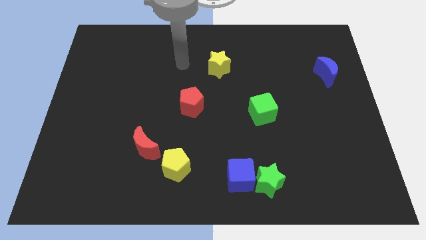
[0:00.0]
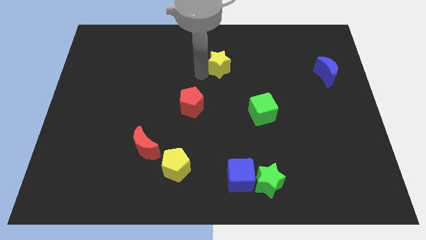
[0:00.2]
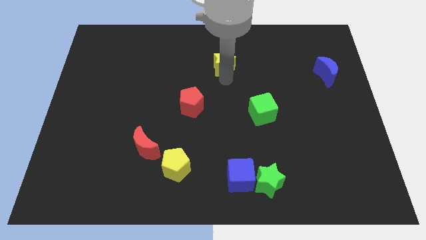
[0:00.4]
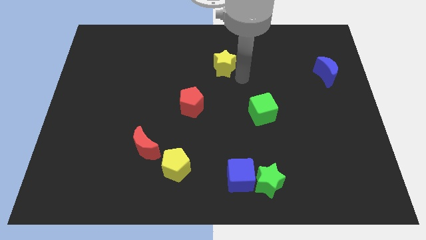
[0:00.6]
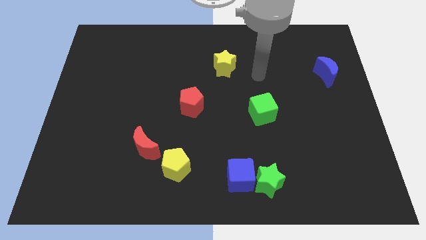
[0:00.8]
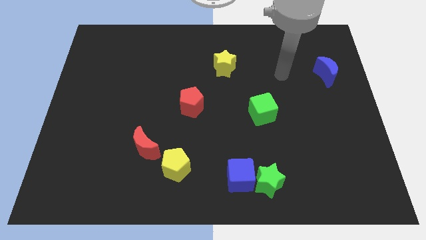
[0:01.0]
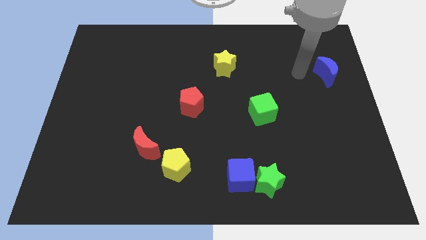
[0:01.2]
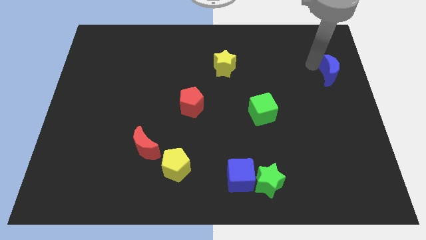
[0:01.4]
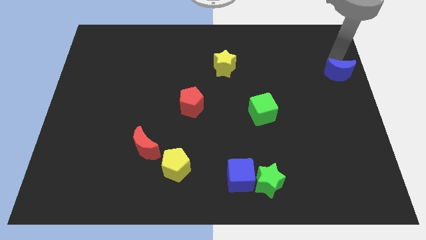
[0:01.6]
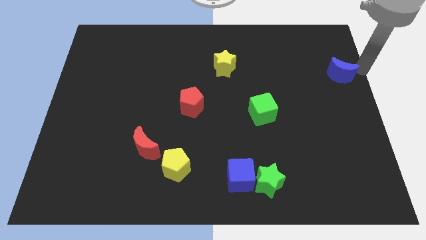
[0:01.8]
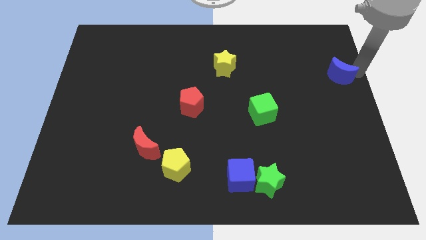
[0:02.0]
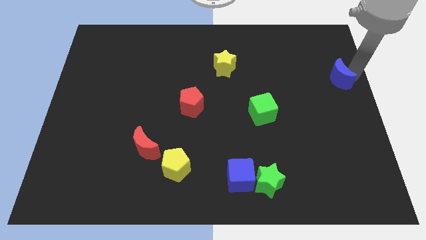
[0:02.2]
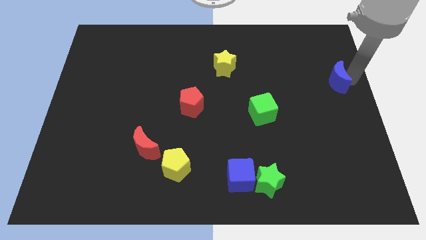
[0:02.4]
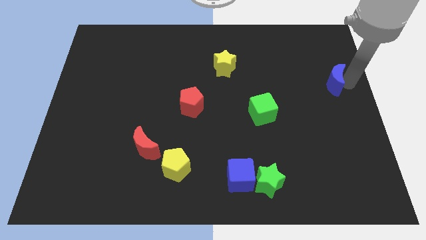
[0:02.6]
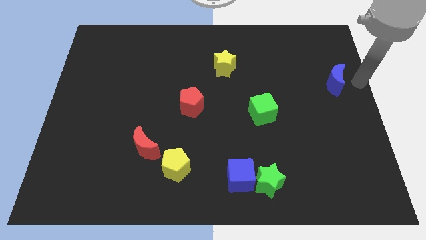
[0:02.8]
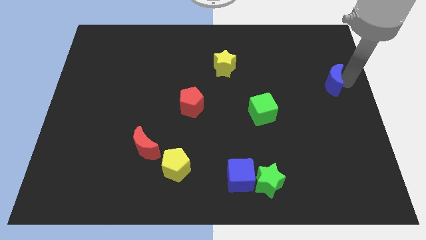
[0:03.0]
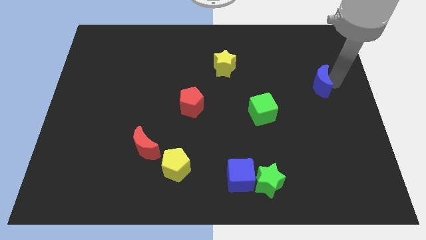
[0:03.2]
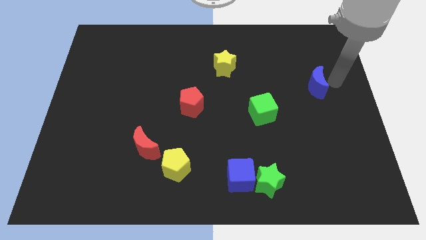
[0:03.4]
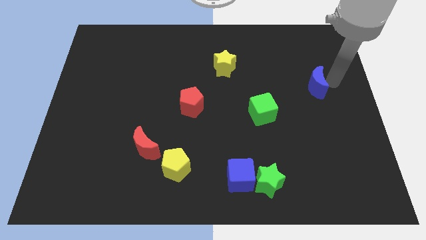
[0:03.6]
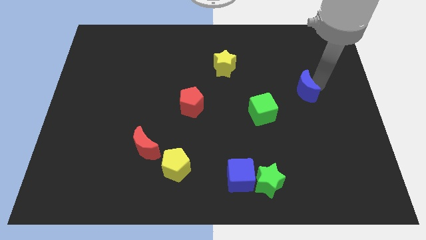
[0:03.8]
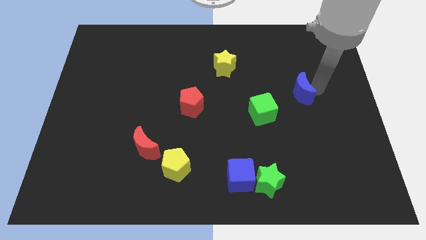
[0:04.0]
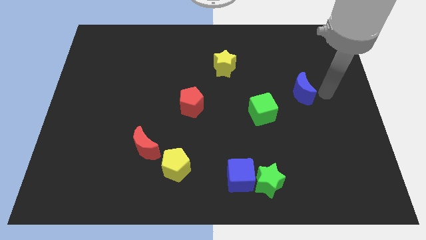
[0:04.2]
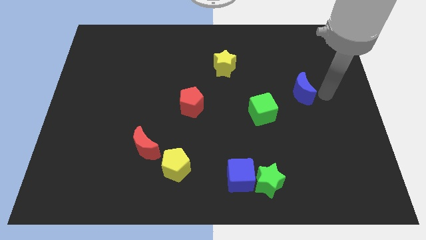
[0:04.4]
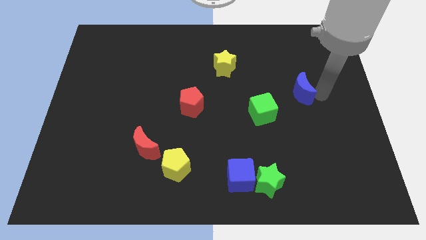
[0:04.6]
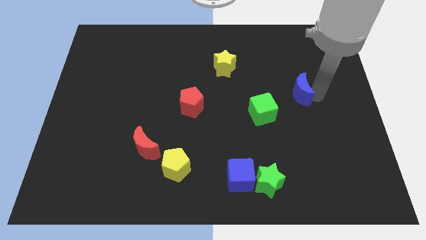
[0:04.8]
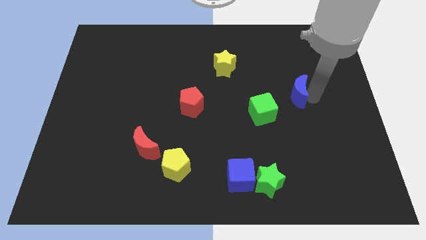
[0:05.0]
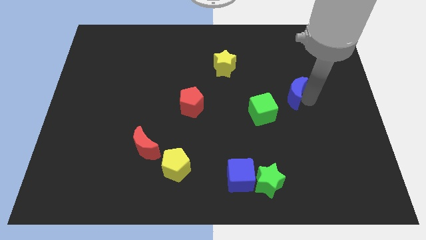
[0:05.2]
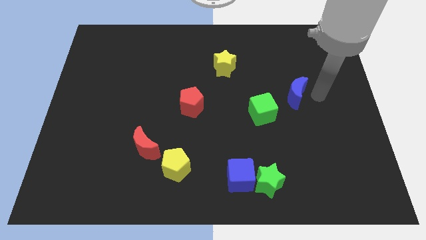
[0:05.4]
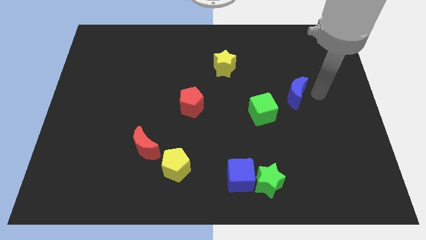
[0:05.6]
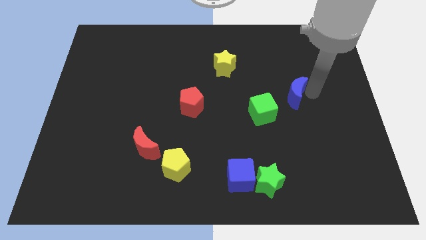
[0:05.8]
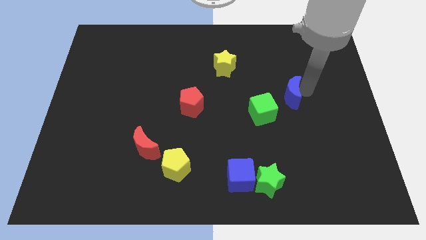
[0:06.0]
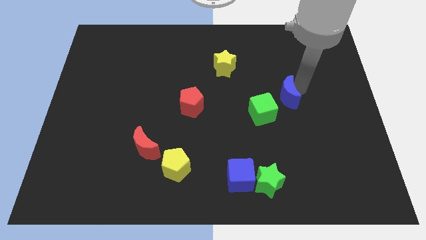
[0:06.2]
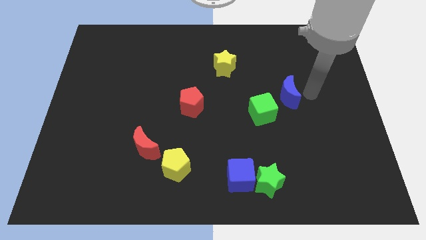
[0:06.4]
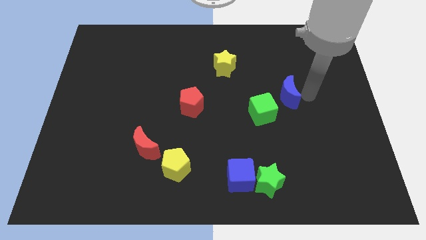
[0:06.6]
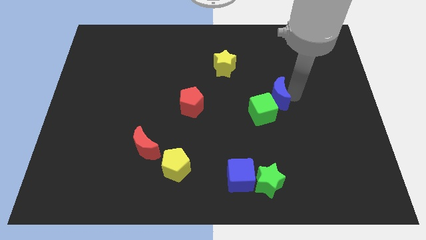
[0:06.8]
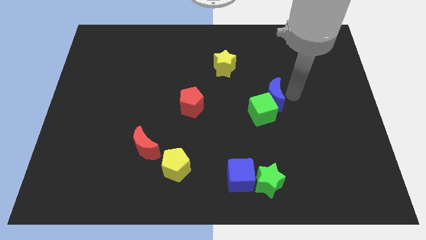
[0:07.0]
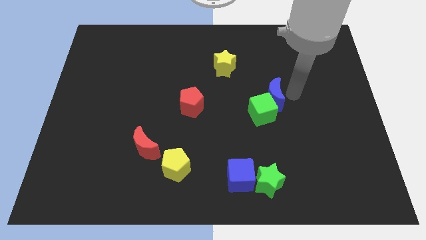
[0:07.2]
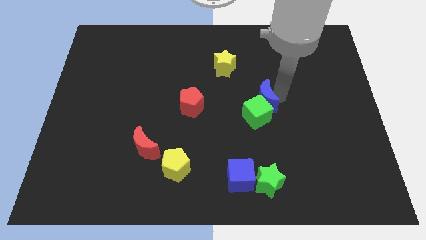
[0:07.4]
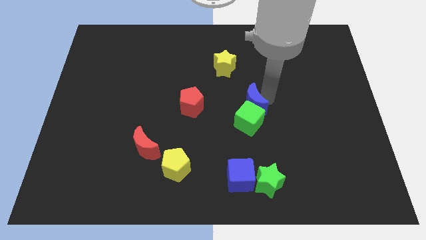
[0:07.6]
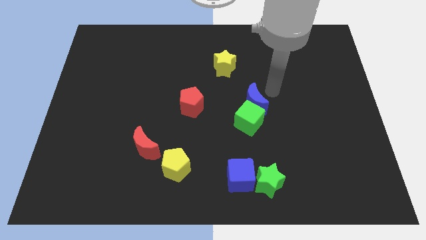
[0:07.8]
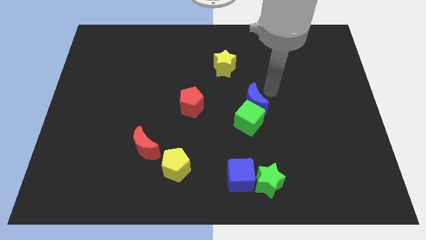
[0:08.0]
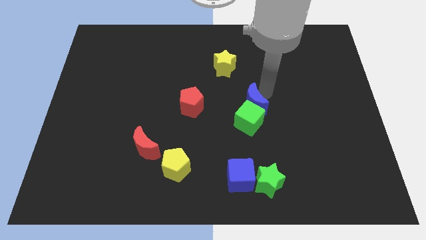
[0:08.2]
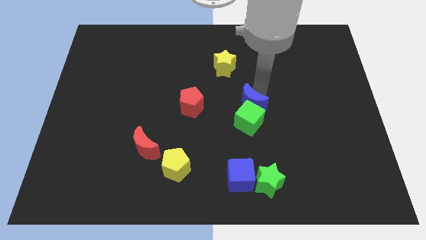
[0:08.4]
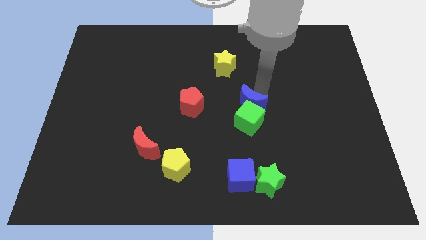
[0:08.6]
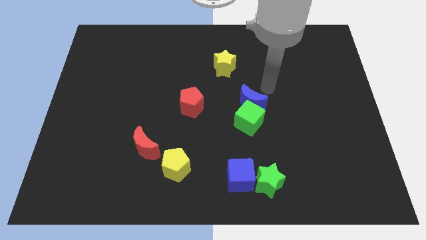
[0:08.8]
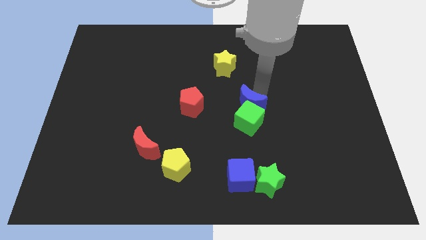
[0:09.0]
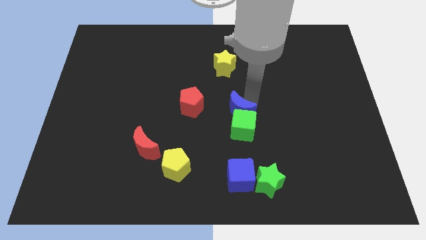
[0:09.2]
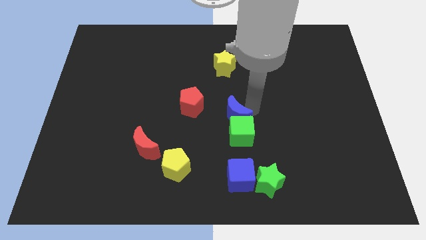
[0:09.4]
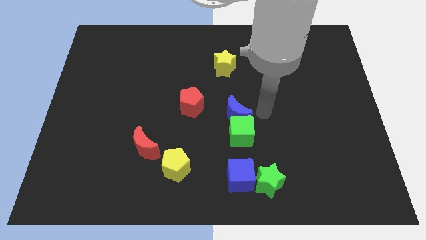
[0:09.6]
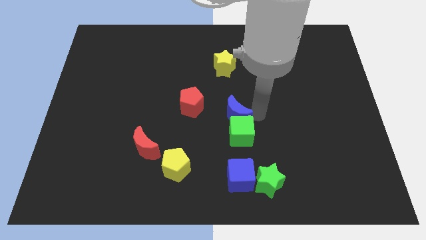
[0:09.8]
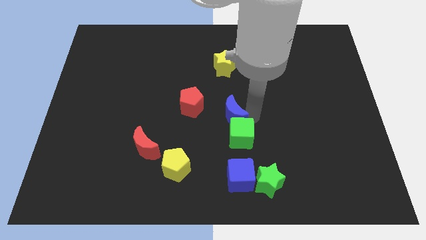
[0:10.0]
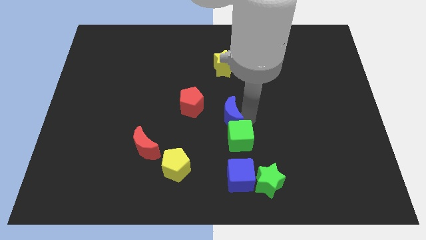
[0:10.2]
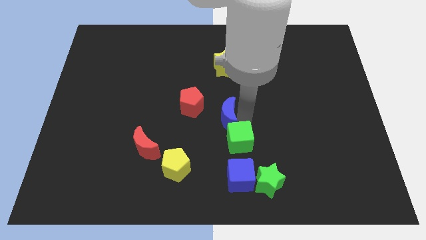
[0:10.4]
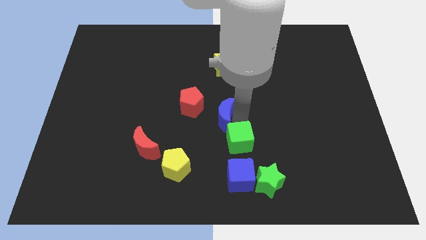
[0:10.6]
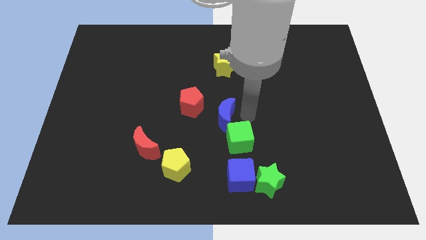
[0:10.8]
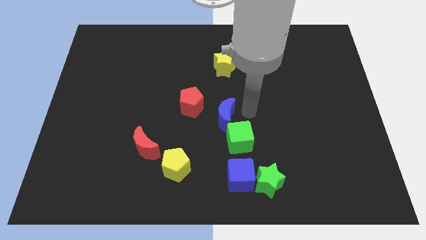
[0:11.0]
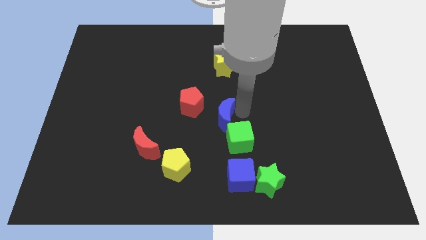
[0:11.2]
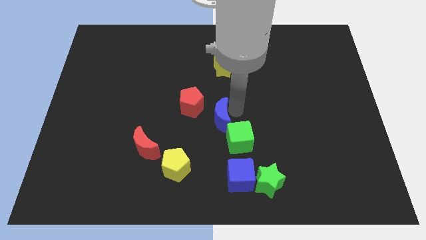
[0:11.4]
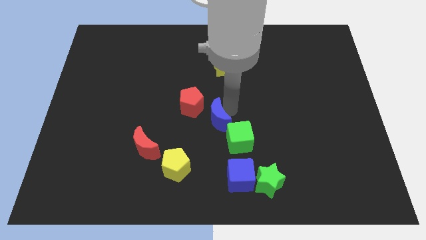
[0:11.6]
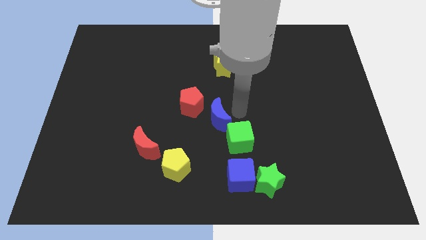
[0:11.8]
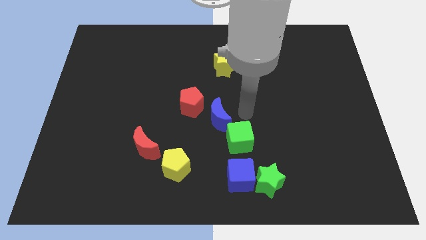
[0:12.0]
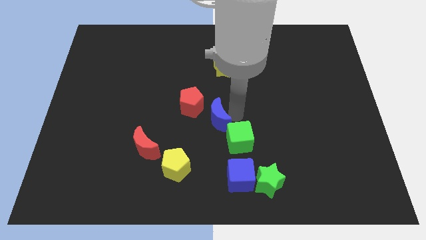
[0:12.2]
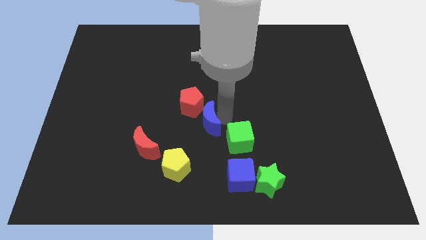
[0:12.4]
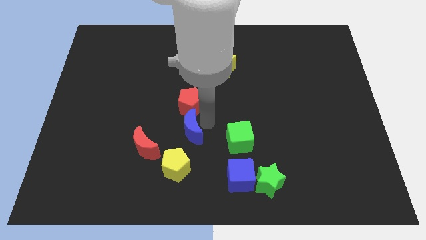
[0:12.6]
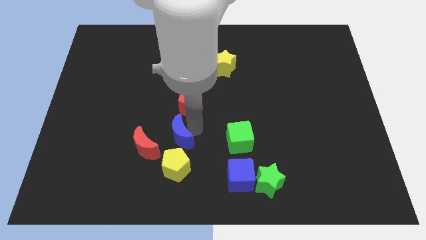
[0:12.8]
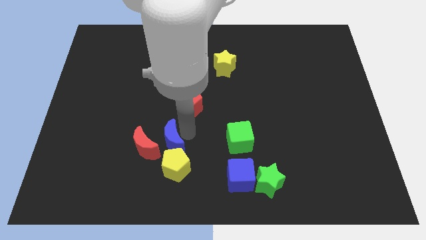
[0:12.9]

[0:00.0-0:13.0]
move the blue moon towards the red moon

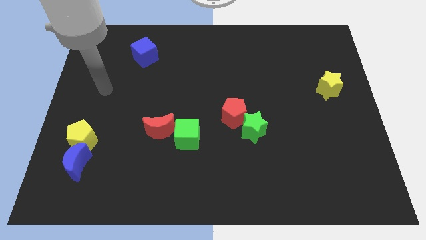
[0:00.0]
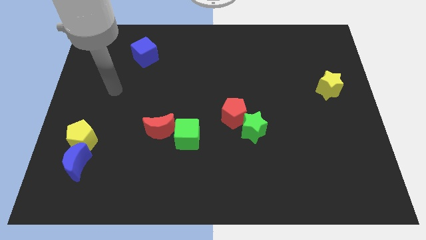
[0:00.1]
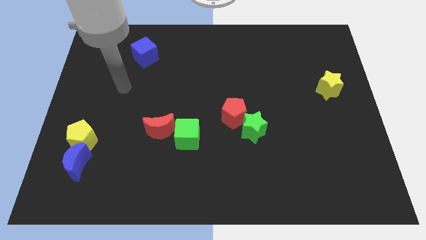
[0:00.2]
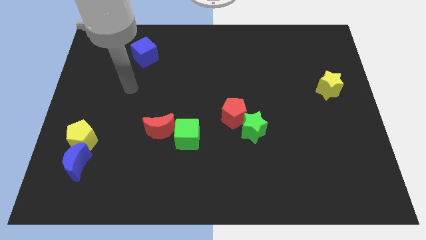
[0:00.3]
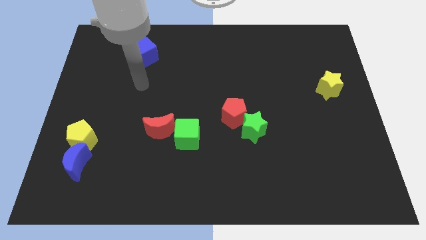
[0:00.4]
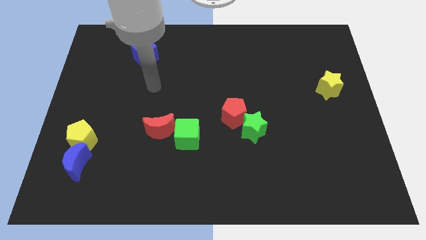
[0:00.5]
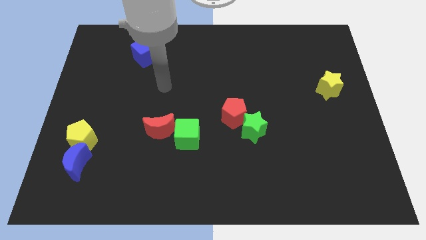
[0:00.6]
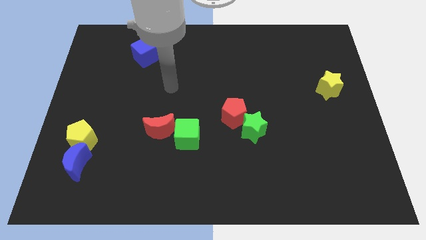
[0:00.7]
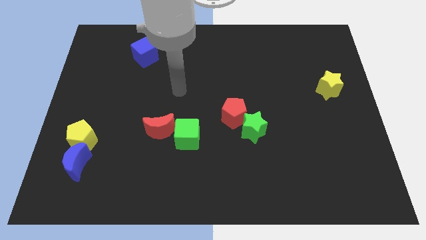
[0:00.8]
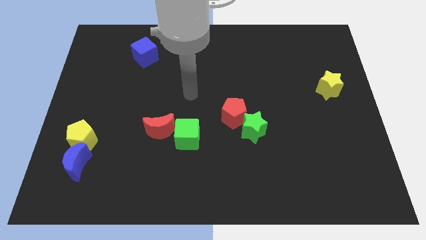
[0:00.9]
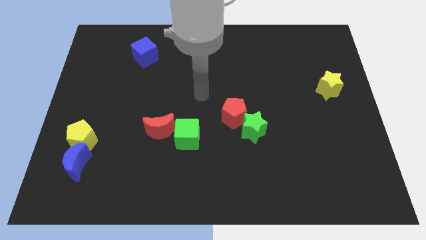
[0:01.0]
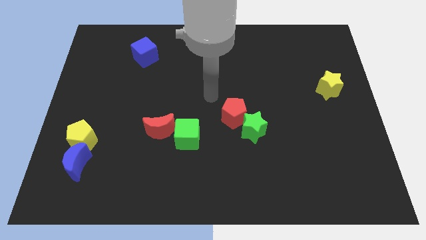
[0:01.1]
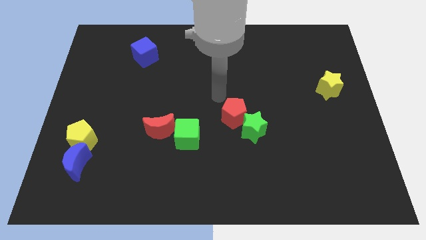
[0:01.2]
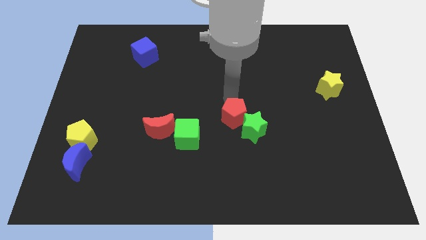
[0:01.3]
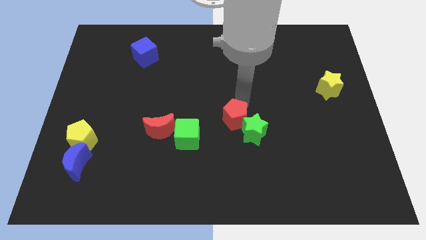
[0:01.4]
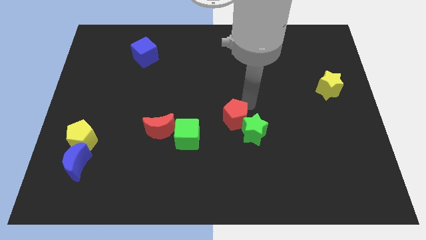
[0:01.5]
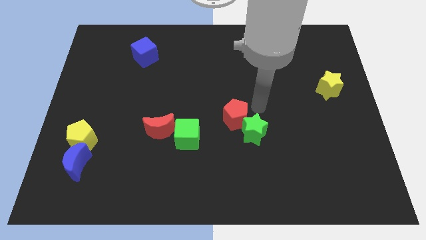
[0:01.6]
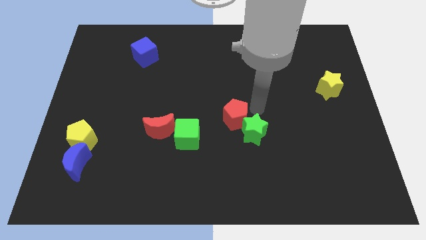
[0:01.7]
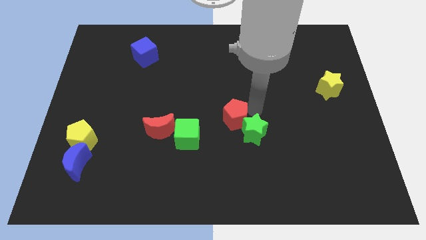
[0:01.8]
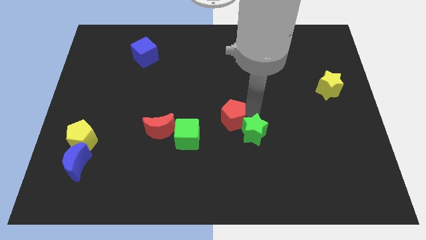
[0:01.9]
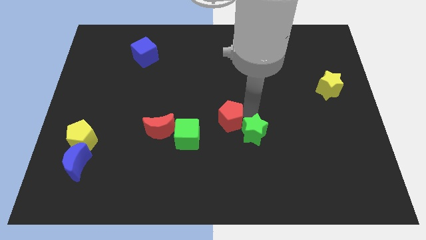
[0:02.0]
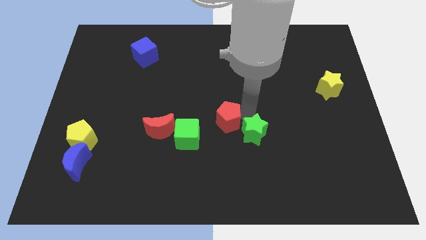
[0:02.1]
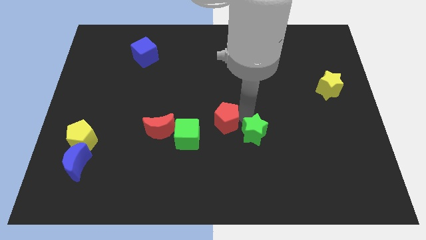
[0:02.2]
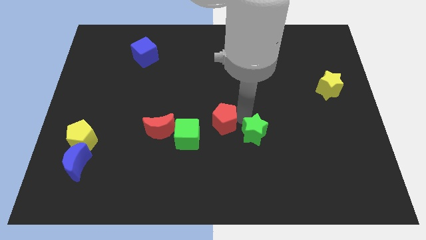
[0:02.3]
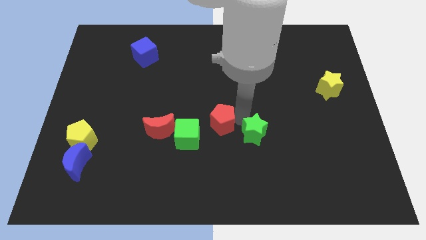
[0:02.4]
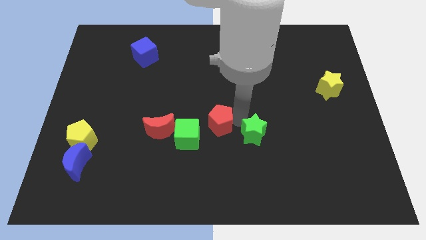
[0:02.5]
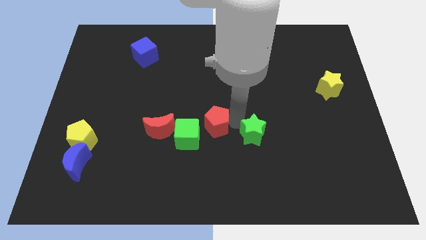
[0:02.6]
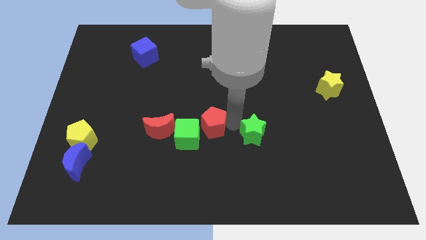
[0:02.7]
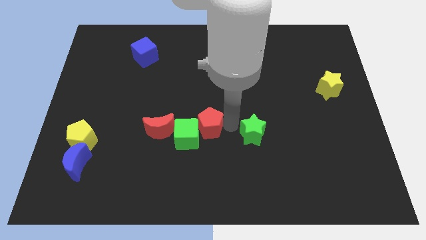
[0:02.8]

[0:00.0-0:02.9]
put the red pentagon towards the green cube
